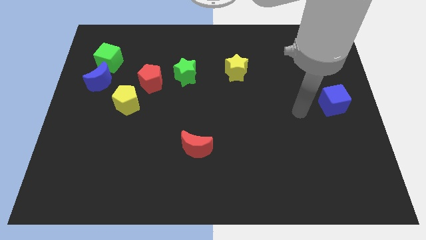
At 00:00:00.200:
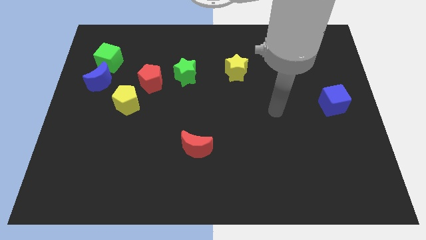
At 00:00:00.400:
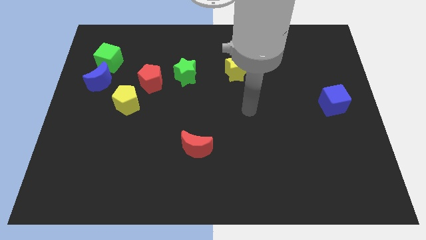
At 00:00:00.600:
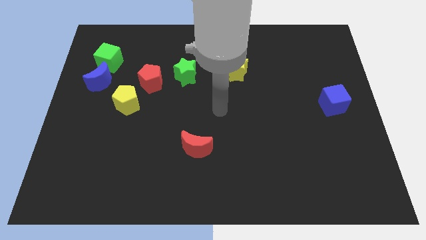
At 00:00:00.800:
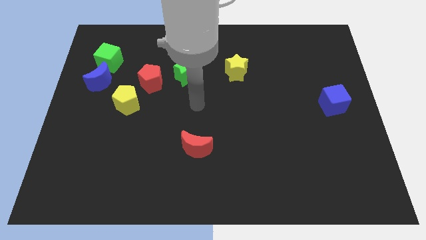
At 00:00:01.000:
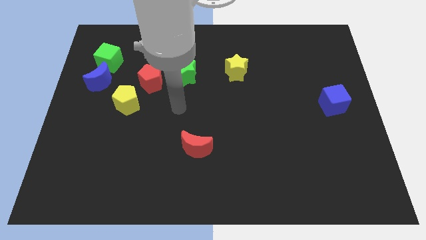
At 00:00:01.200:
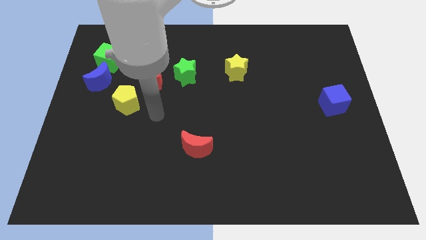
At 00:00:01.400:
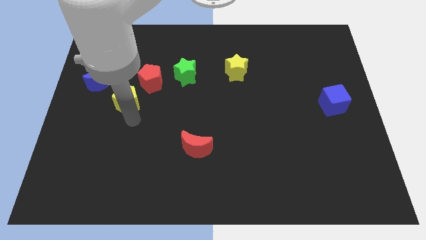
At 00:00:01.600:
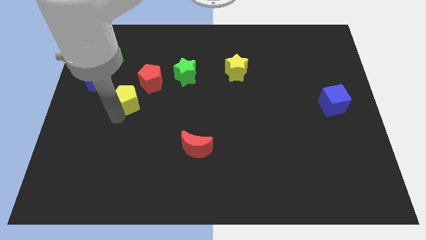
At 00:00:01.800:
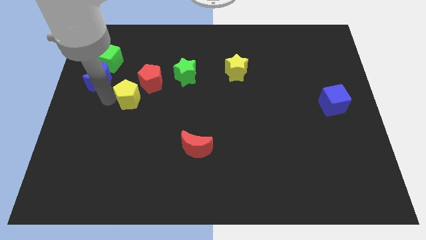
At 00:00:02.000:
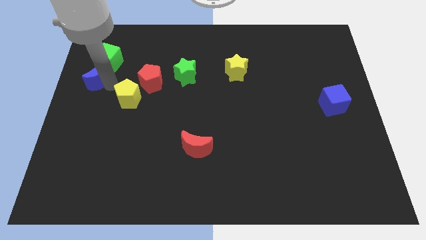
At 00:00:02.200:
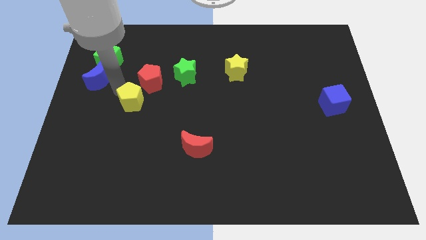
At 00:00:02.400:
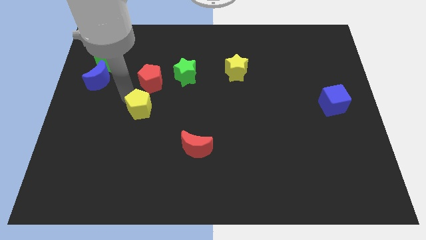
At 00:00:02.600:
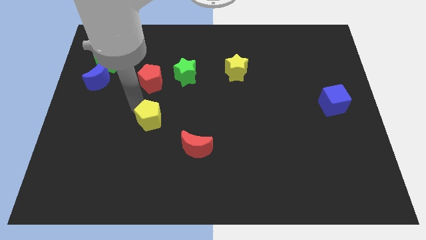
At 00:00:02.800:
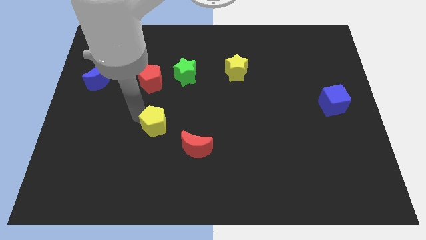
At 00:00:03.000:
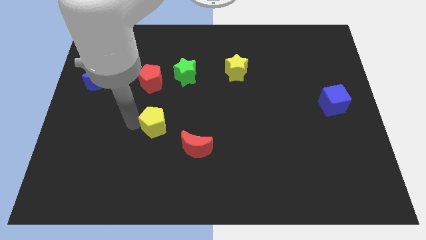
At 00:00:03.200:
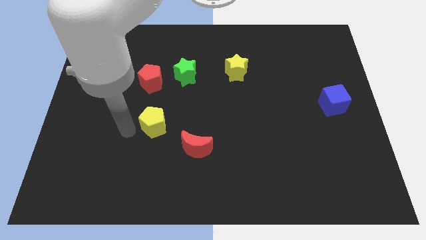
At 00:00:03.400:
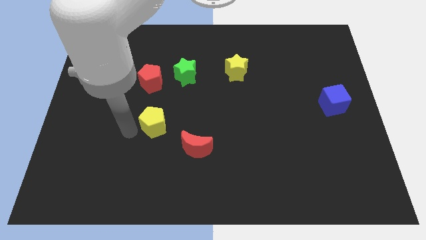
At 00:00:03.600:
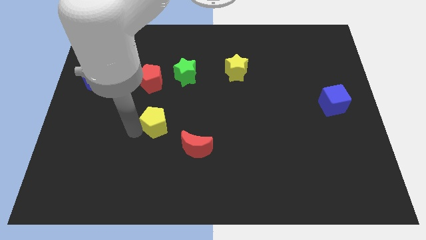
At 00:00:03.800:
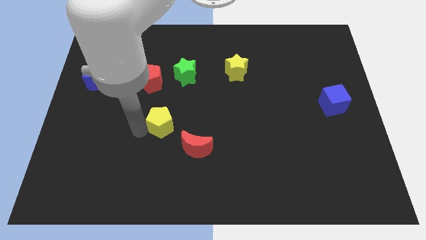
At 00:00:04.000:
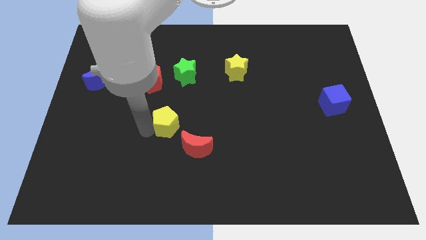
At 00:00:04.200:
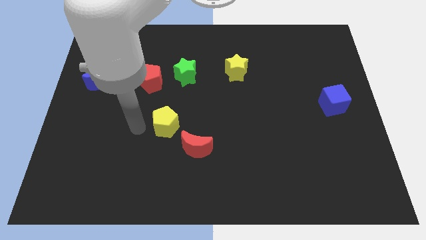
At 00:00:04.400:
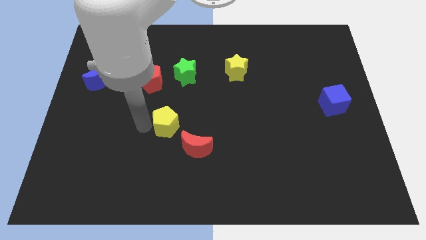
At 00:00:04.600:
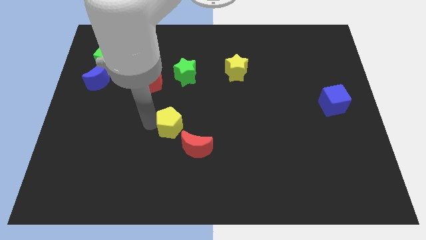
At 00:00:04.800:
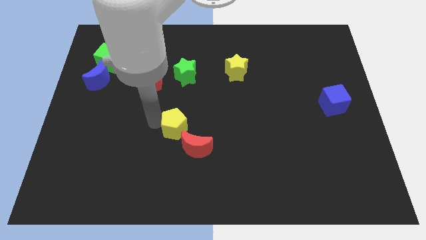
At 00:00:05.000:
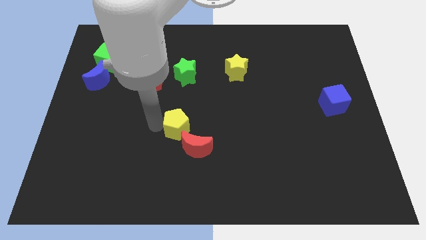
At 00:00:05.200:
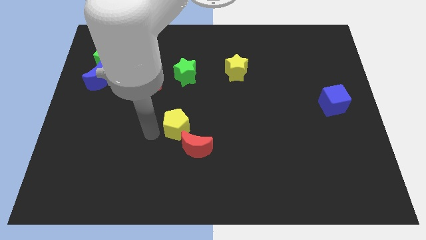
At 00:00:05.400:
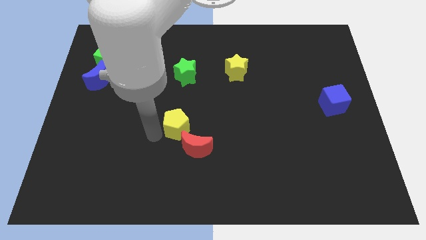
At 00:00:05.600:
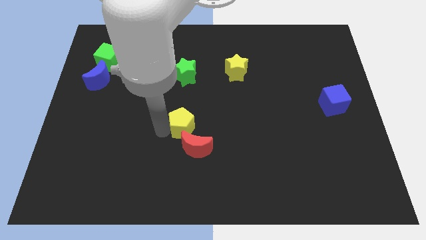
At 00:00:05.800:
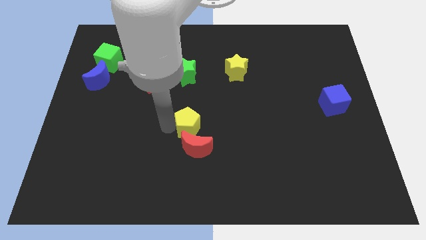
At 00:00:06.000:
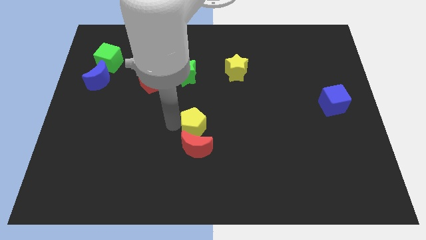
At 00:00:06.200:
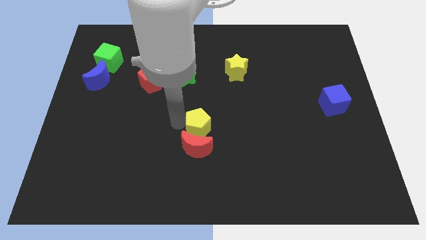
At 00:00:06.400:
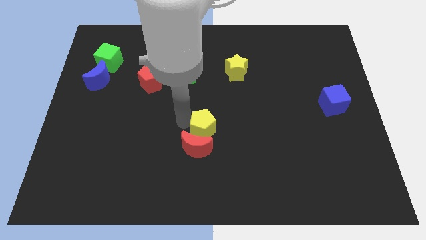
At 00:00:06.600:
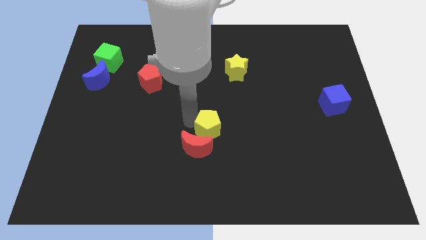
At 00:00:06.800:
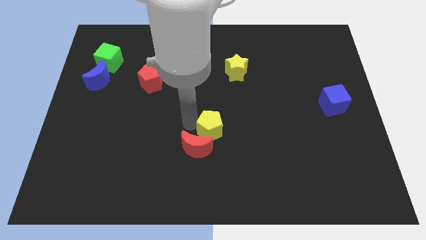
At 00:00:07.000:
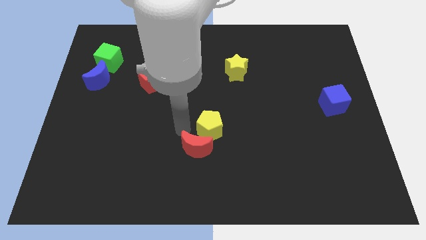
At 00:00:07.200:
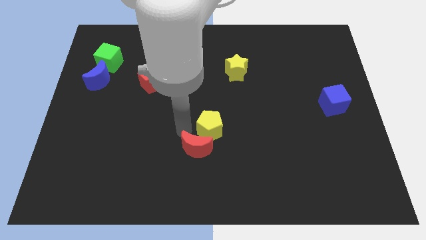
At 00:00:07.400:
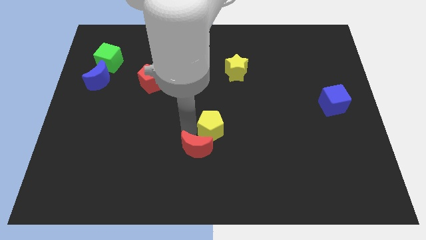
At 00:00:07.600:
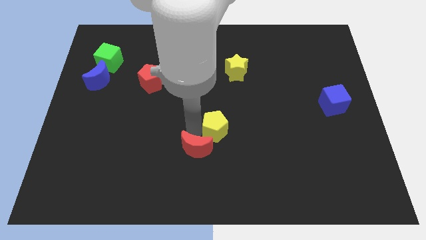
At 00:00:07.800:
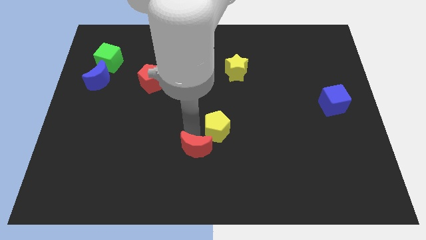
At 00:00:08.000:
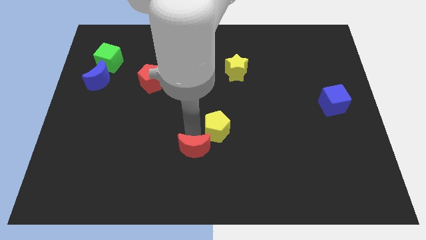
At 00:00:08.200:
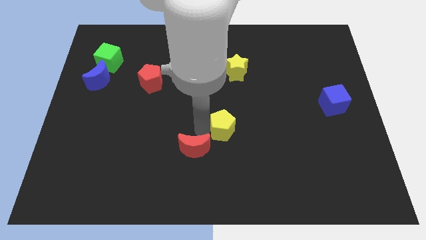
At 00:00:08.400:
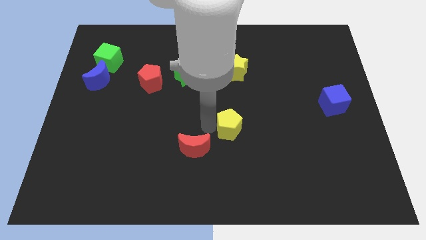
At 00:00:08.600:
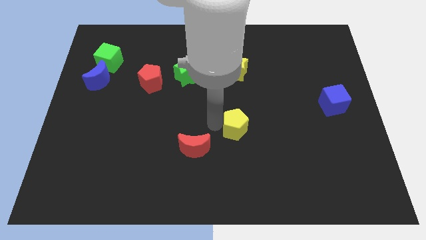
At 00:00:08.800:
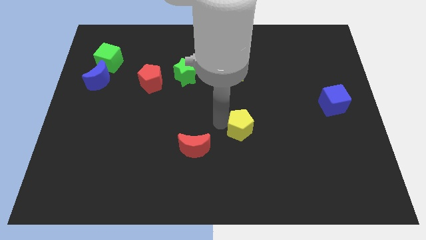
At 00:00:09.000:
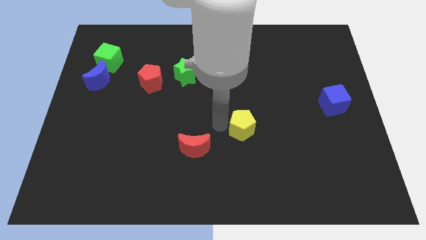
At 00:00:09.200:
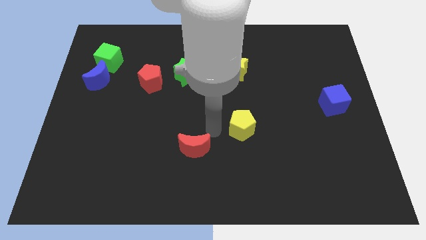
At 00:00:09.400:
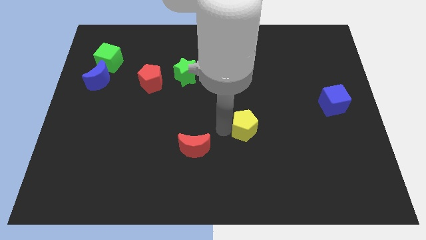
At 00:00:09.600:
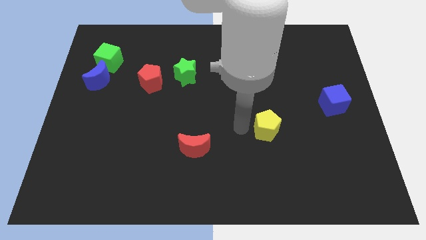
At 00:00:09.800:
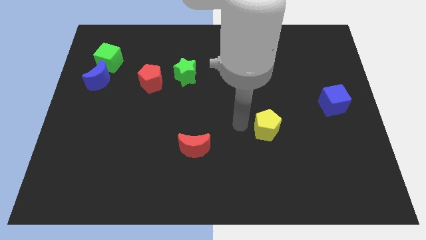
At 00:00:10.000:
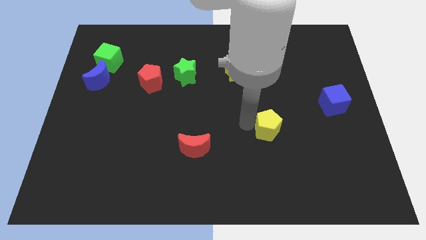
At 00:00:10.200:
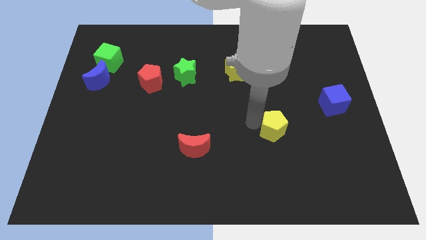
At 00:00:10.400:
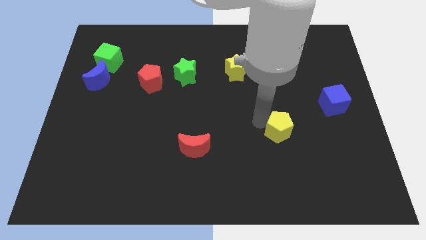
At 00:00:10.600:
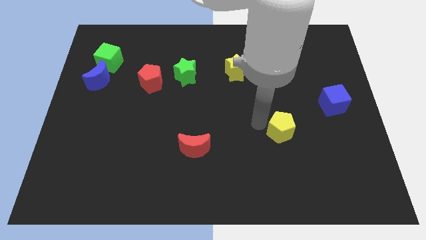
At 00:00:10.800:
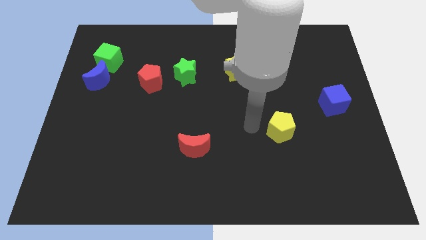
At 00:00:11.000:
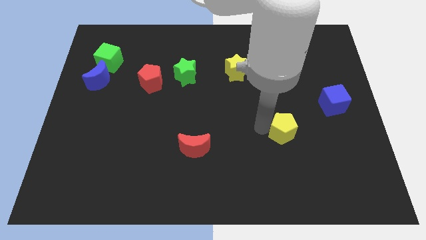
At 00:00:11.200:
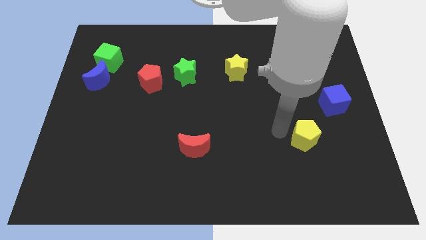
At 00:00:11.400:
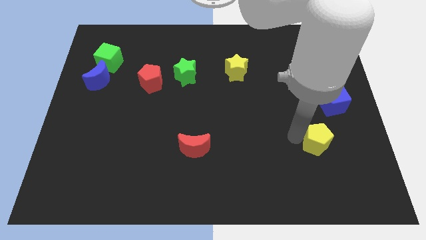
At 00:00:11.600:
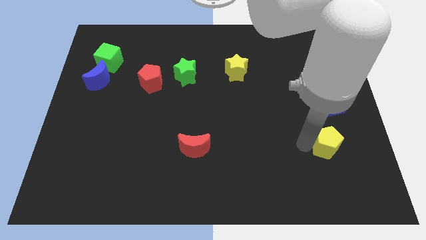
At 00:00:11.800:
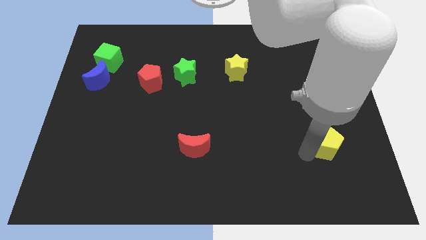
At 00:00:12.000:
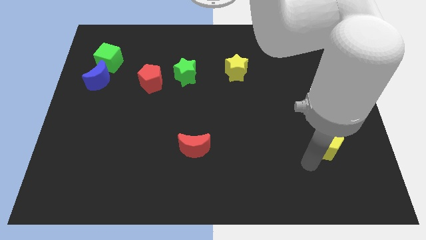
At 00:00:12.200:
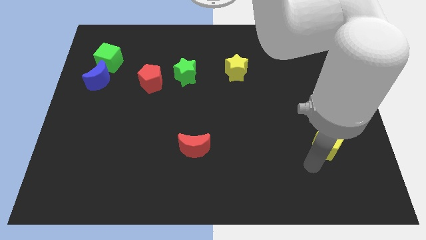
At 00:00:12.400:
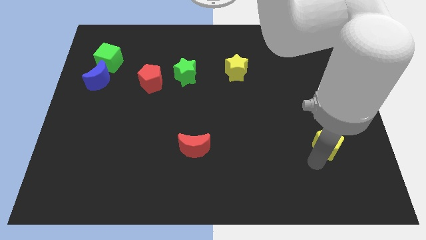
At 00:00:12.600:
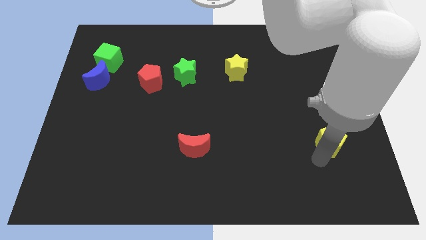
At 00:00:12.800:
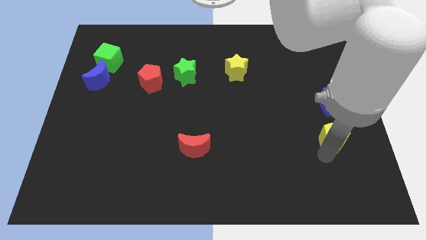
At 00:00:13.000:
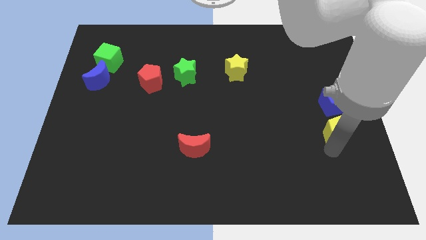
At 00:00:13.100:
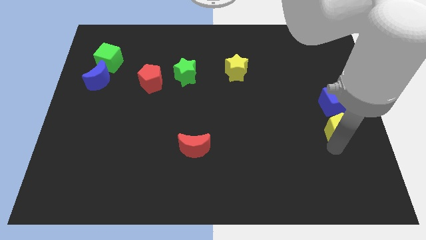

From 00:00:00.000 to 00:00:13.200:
push the yellow pentagon to the right side of the board

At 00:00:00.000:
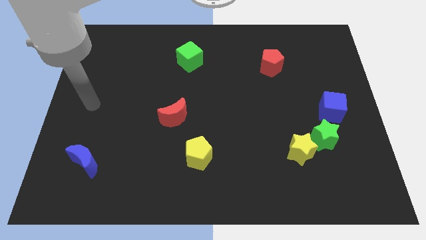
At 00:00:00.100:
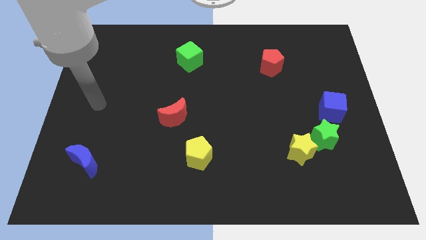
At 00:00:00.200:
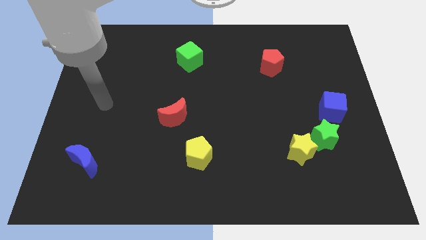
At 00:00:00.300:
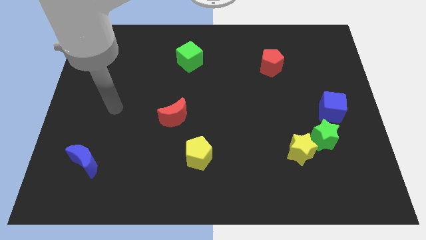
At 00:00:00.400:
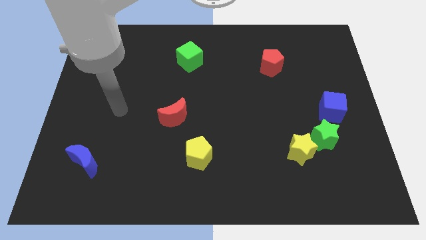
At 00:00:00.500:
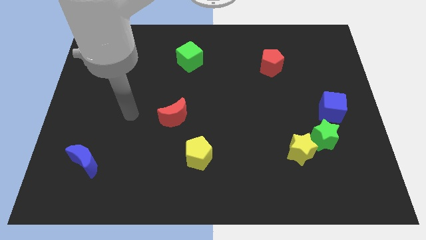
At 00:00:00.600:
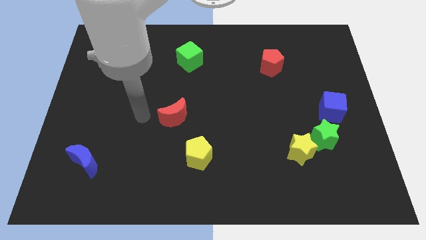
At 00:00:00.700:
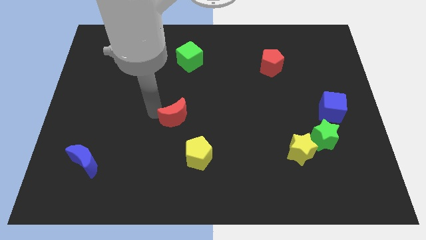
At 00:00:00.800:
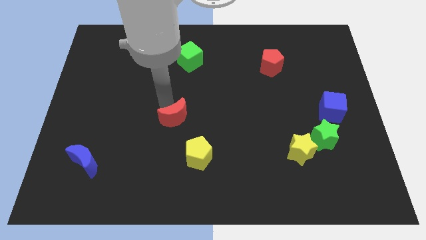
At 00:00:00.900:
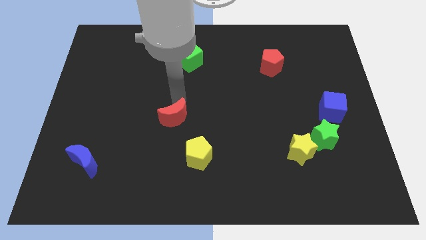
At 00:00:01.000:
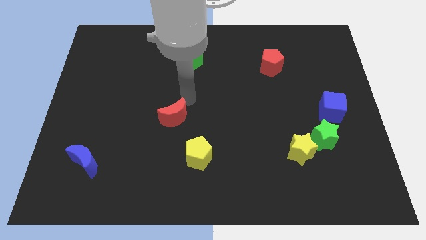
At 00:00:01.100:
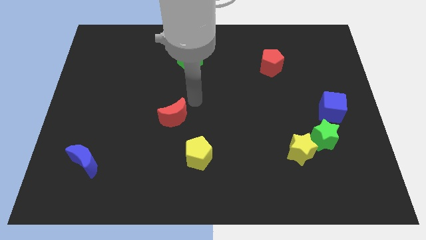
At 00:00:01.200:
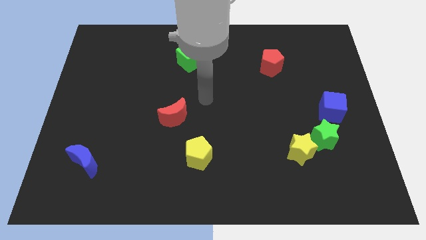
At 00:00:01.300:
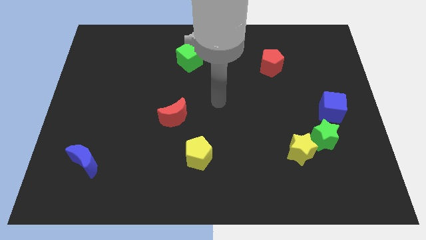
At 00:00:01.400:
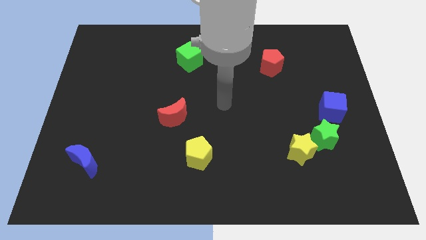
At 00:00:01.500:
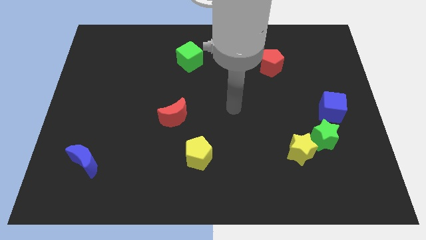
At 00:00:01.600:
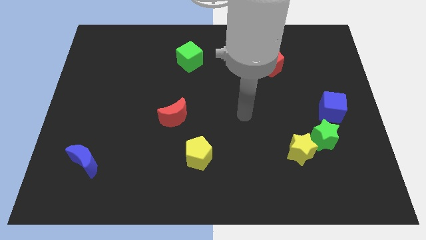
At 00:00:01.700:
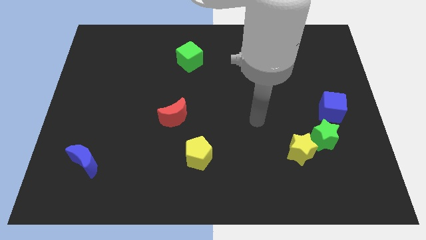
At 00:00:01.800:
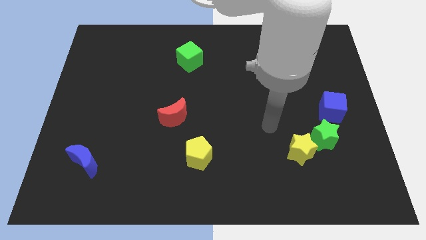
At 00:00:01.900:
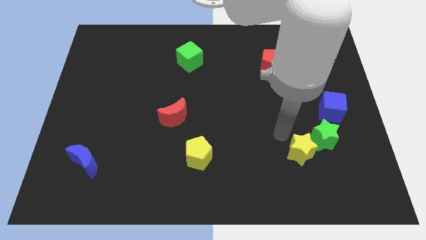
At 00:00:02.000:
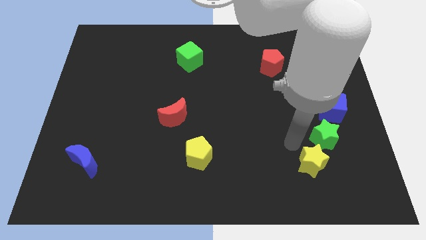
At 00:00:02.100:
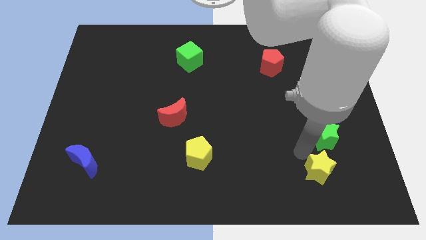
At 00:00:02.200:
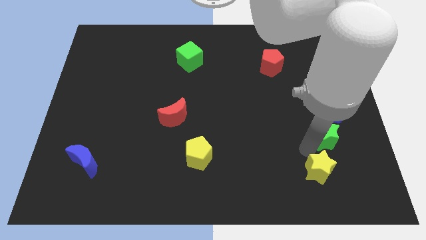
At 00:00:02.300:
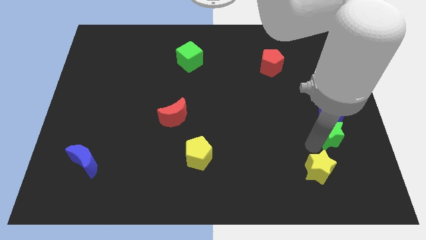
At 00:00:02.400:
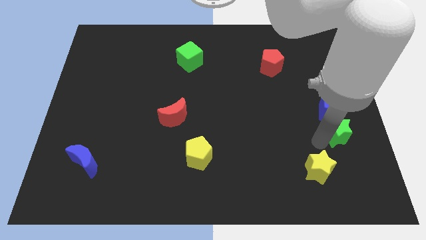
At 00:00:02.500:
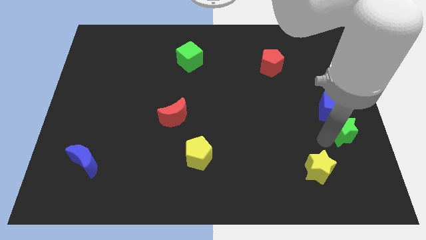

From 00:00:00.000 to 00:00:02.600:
put the green star to the right side
